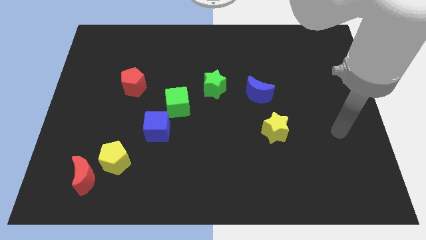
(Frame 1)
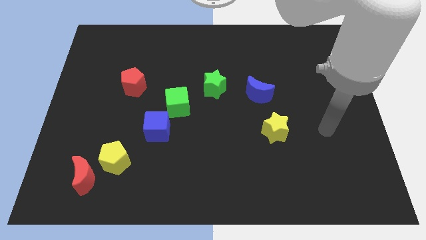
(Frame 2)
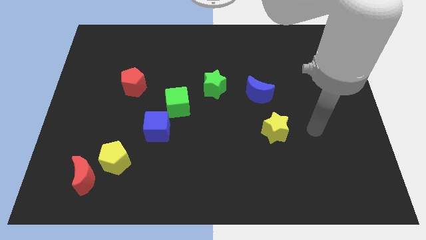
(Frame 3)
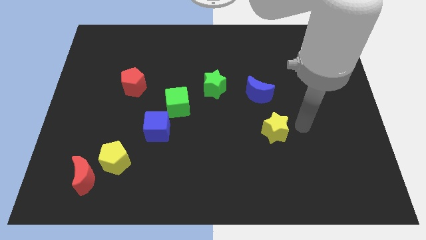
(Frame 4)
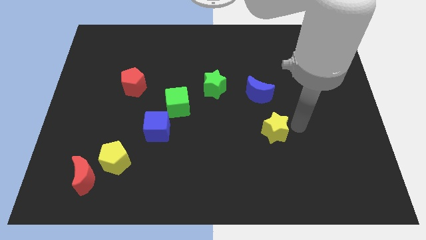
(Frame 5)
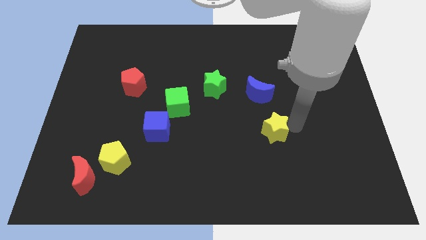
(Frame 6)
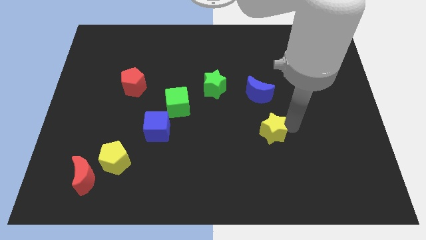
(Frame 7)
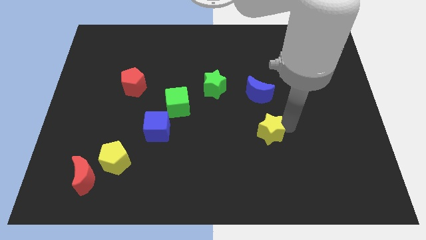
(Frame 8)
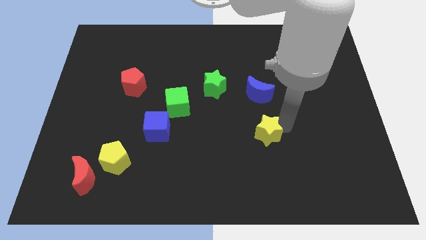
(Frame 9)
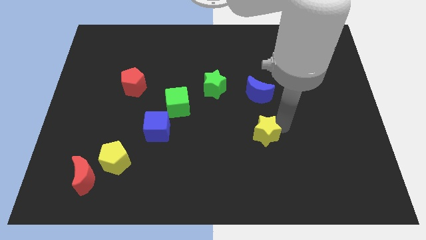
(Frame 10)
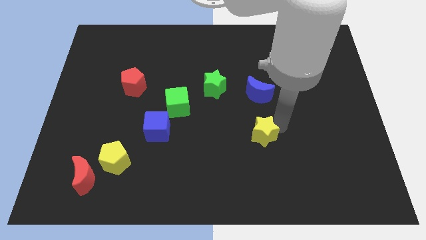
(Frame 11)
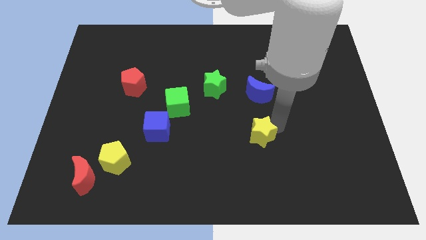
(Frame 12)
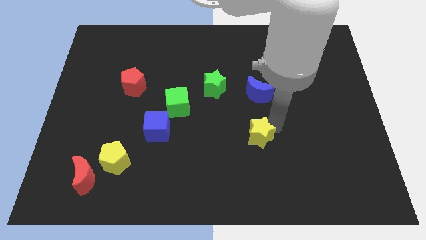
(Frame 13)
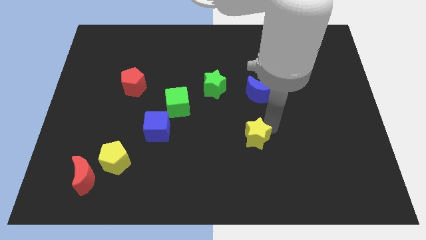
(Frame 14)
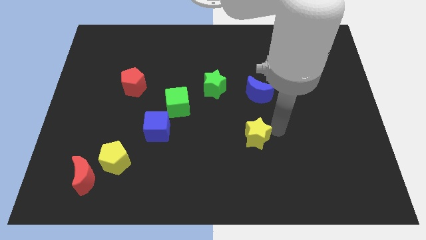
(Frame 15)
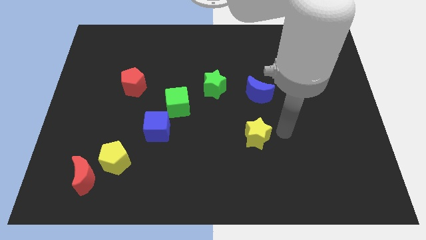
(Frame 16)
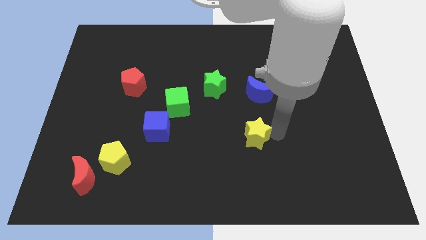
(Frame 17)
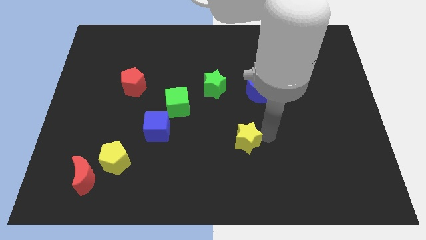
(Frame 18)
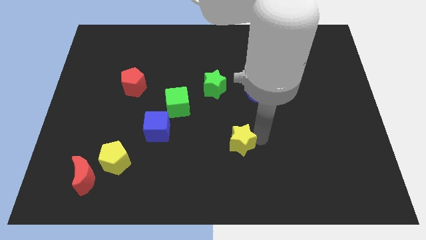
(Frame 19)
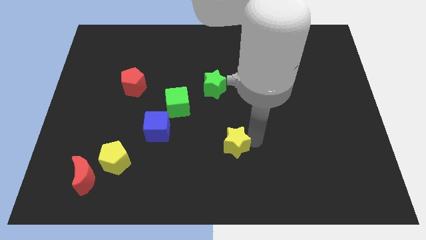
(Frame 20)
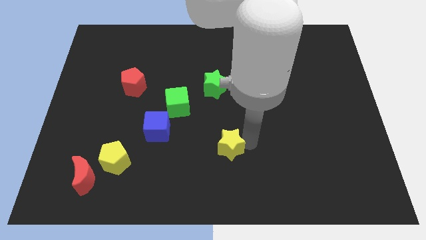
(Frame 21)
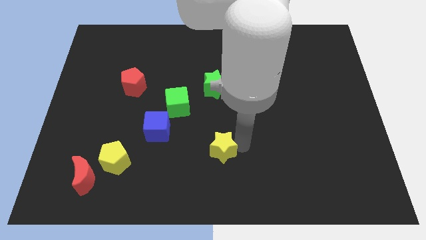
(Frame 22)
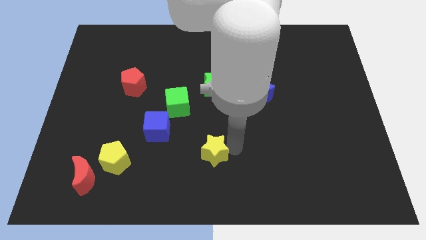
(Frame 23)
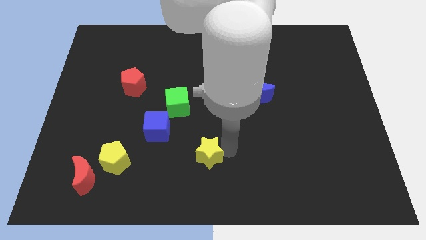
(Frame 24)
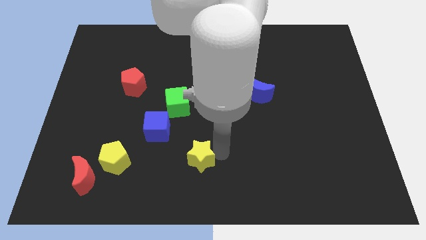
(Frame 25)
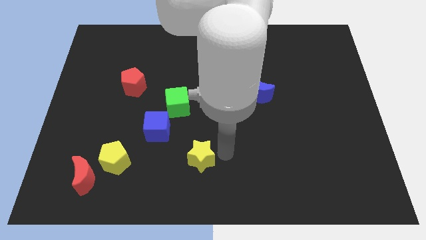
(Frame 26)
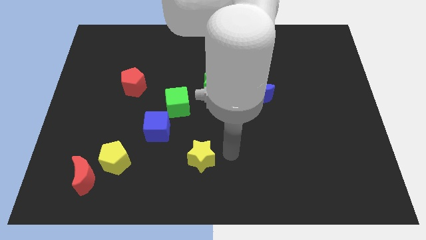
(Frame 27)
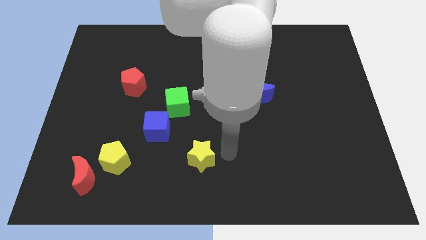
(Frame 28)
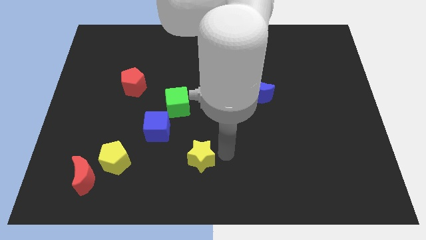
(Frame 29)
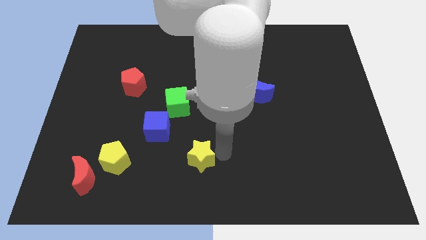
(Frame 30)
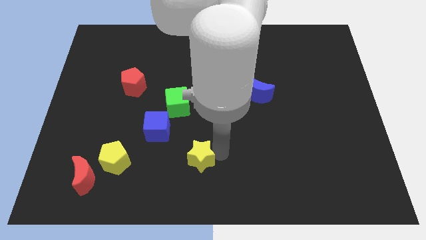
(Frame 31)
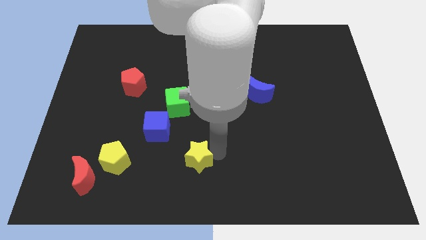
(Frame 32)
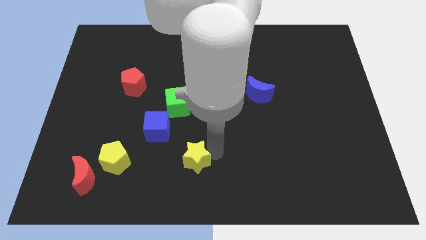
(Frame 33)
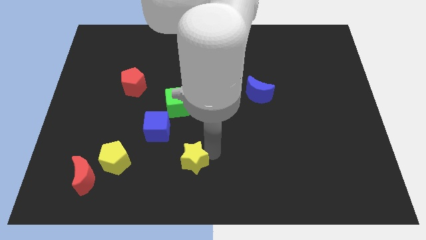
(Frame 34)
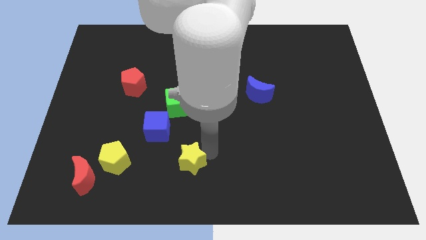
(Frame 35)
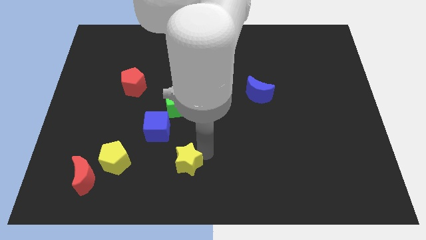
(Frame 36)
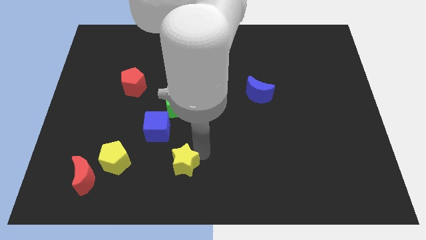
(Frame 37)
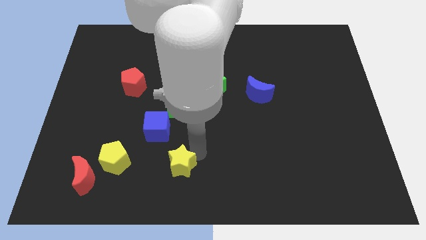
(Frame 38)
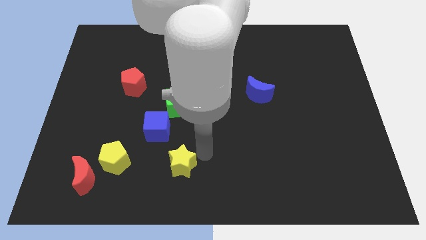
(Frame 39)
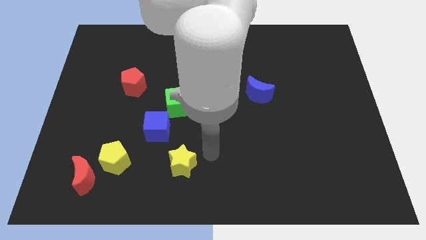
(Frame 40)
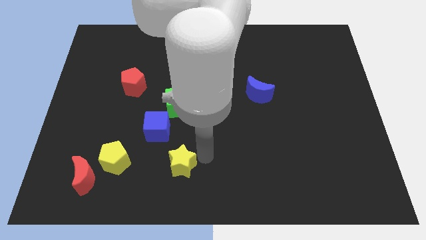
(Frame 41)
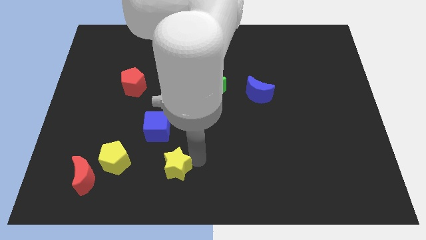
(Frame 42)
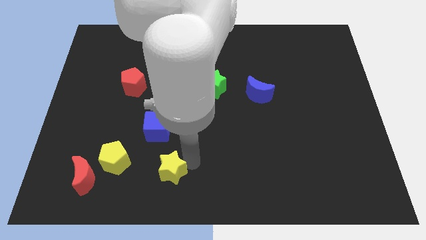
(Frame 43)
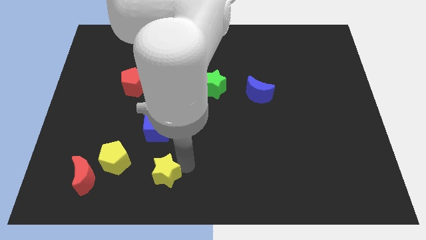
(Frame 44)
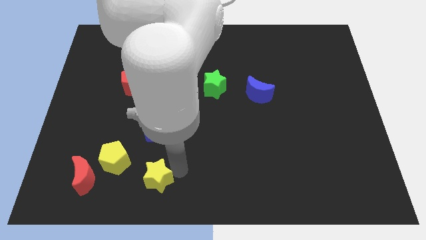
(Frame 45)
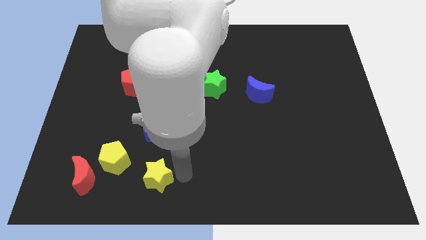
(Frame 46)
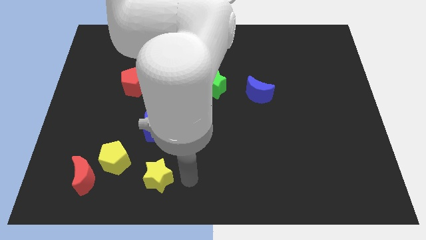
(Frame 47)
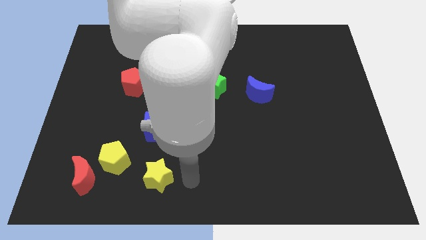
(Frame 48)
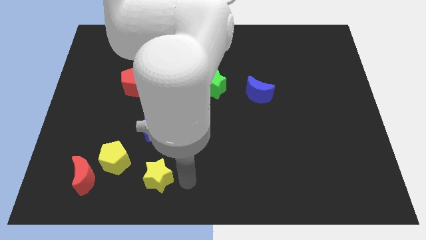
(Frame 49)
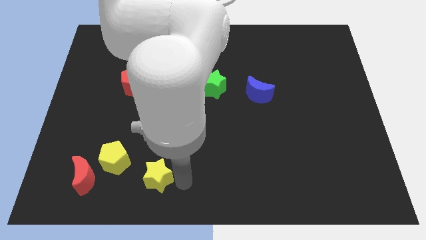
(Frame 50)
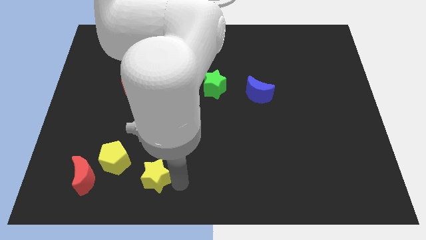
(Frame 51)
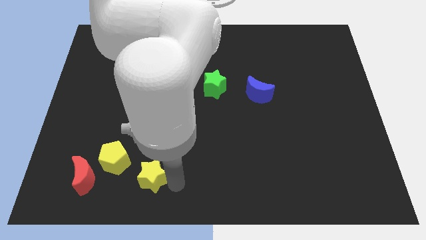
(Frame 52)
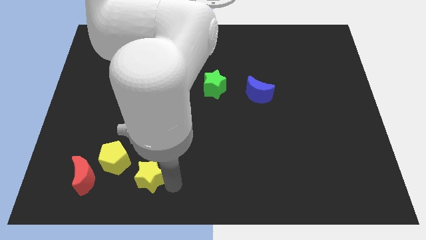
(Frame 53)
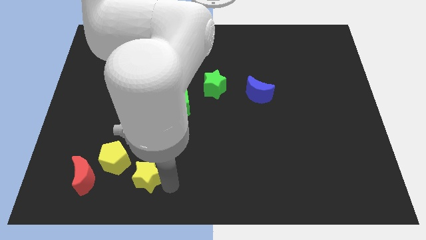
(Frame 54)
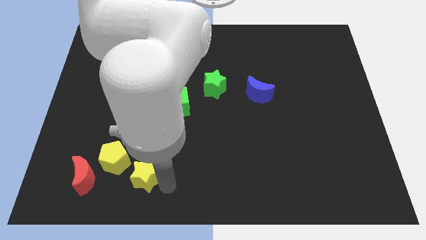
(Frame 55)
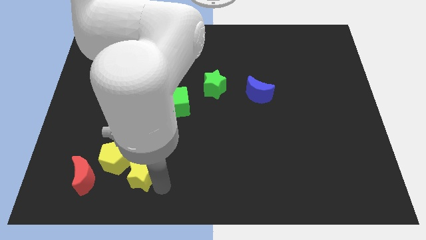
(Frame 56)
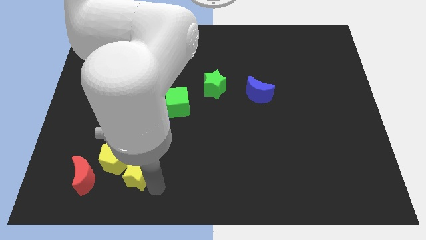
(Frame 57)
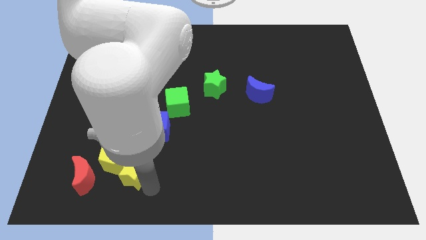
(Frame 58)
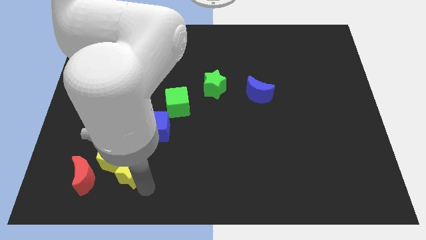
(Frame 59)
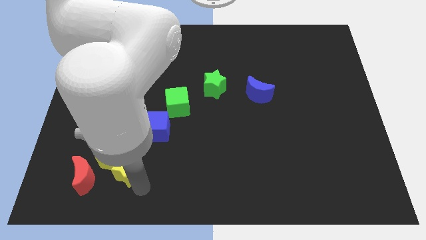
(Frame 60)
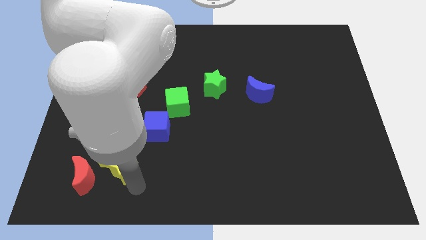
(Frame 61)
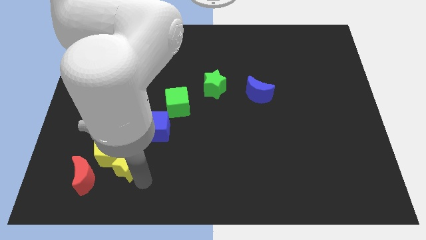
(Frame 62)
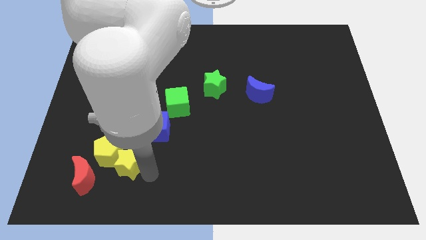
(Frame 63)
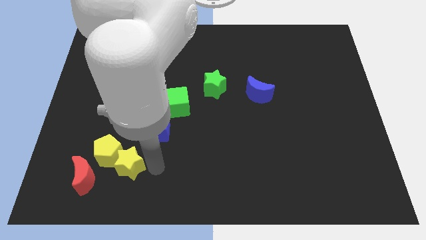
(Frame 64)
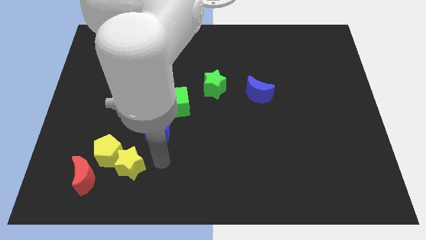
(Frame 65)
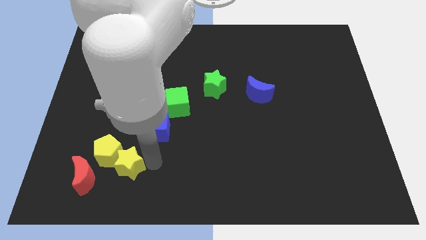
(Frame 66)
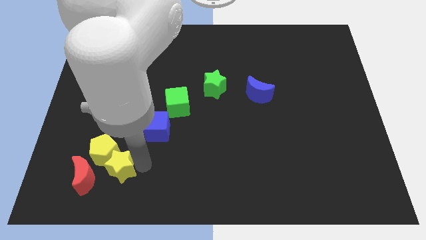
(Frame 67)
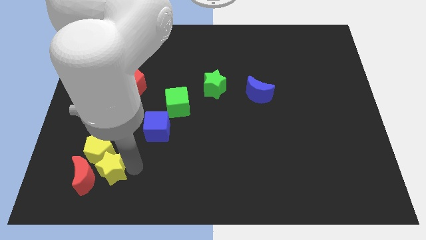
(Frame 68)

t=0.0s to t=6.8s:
push the yellow star next to the red moon
